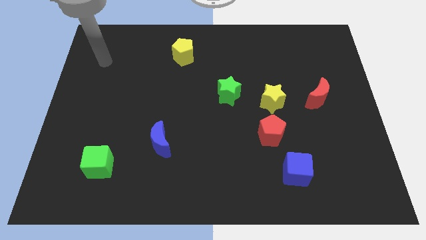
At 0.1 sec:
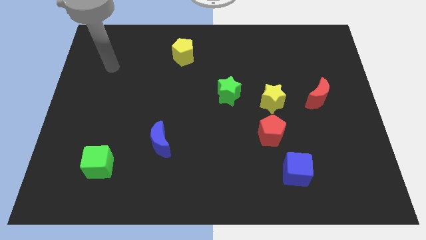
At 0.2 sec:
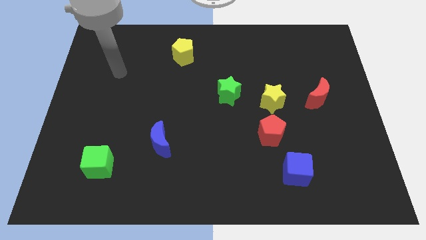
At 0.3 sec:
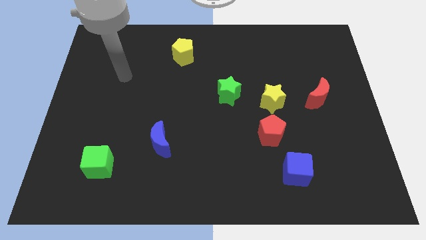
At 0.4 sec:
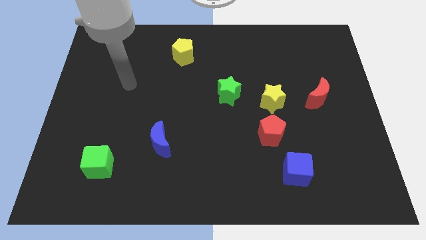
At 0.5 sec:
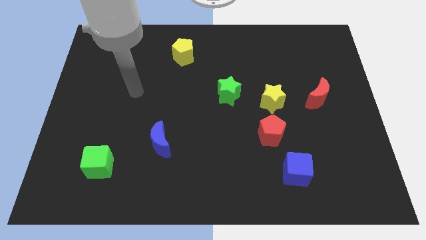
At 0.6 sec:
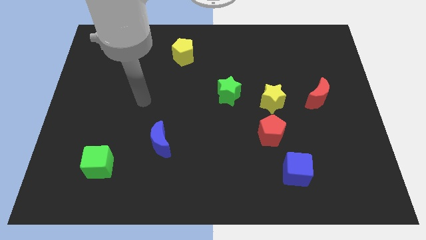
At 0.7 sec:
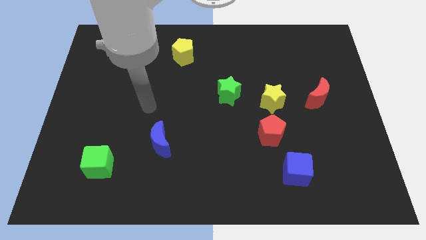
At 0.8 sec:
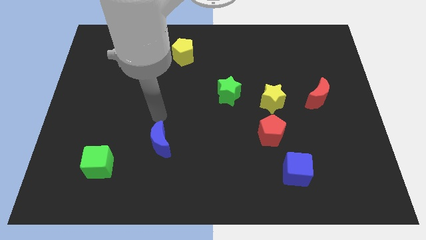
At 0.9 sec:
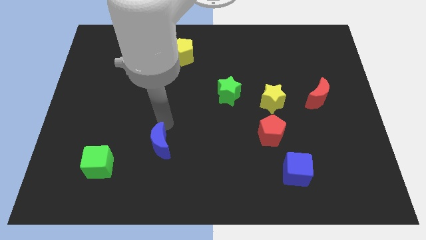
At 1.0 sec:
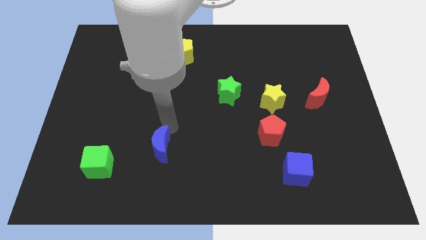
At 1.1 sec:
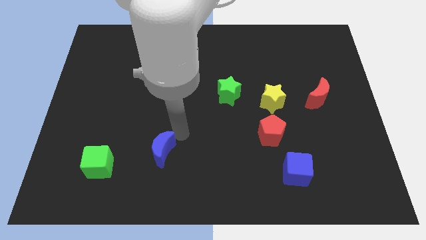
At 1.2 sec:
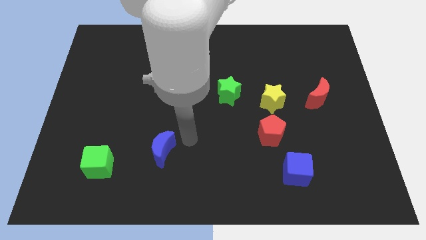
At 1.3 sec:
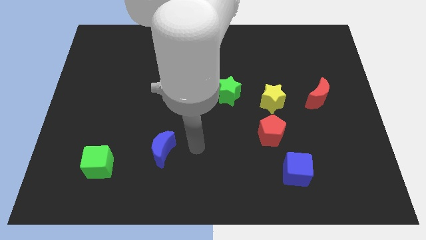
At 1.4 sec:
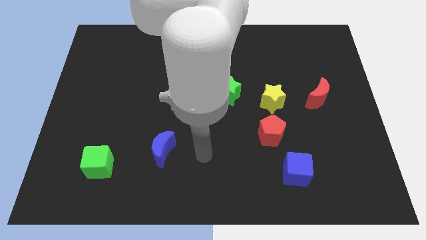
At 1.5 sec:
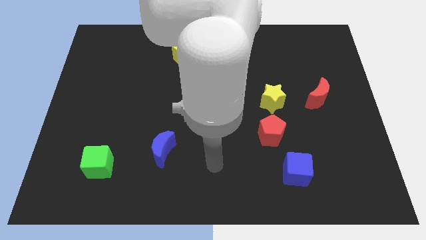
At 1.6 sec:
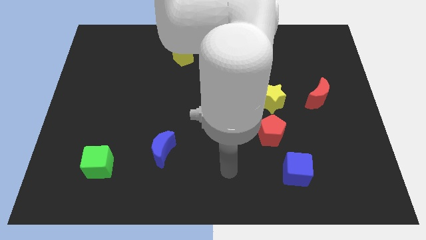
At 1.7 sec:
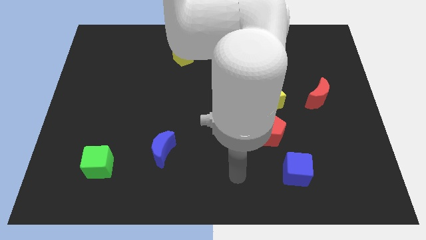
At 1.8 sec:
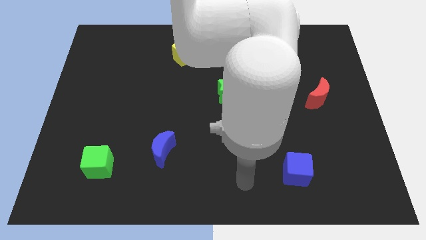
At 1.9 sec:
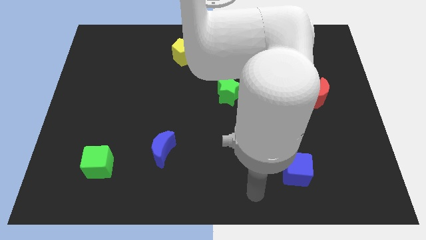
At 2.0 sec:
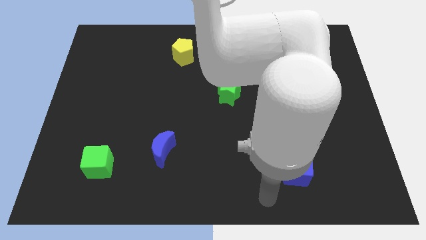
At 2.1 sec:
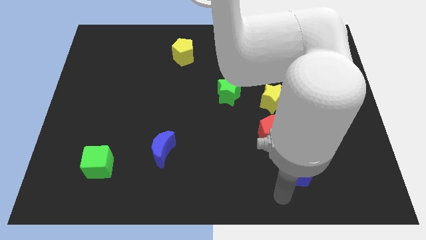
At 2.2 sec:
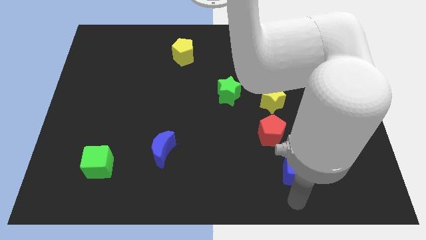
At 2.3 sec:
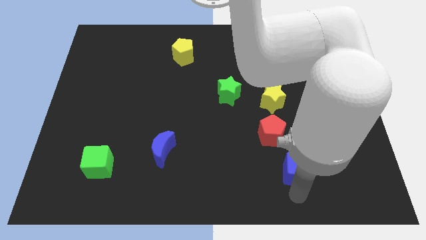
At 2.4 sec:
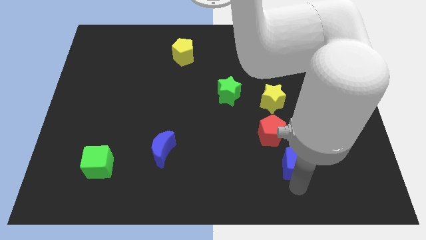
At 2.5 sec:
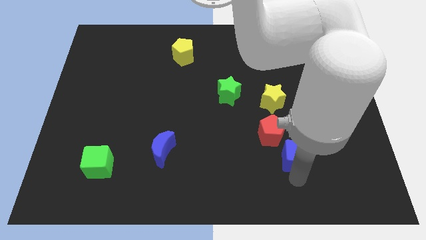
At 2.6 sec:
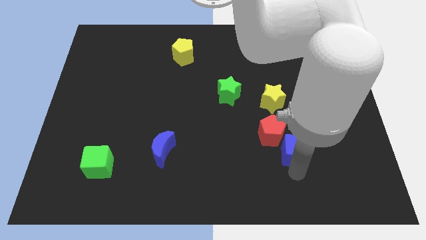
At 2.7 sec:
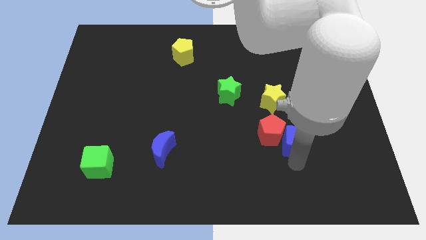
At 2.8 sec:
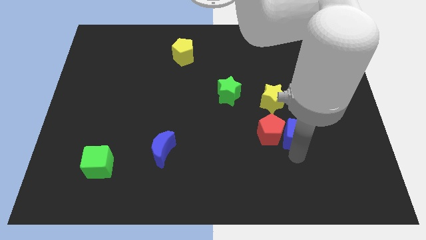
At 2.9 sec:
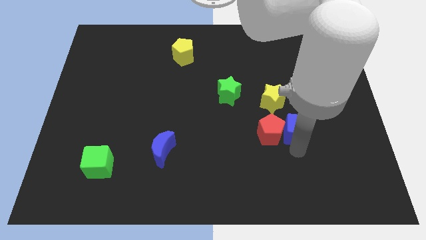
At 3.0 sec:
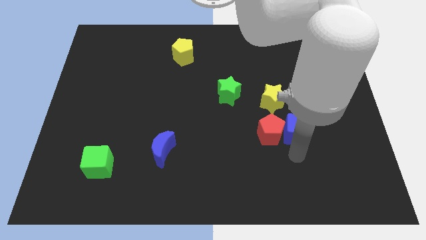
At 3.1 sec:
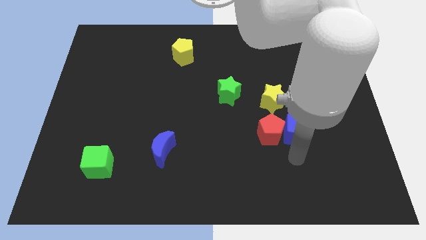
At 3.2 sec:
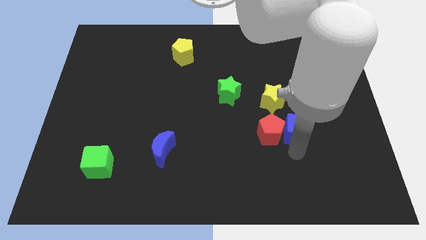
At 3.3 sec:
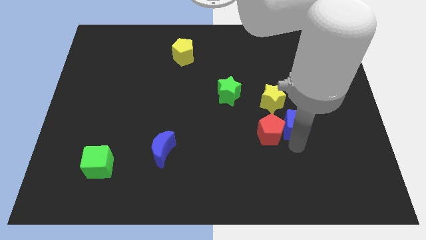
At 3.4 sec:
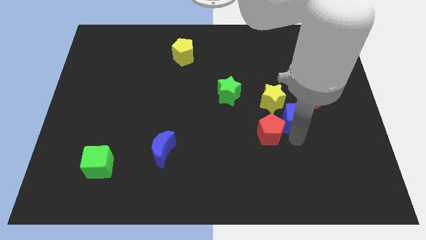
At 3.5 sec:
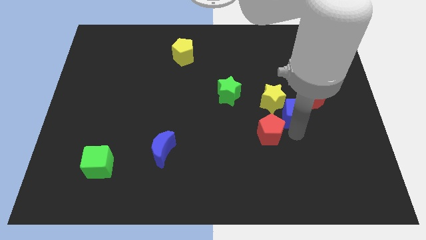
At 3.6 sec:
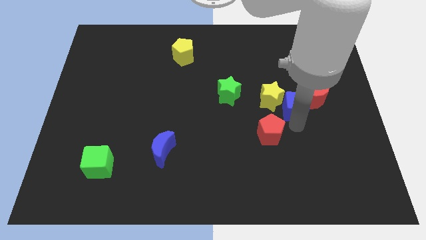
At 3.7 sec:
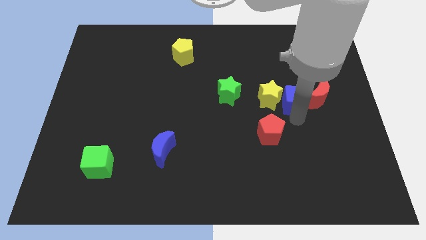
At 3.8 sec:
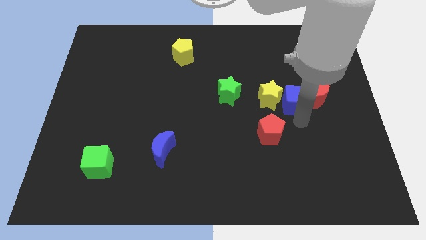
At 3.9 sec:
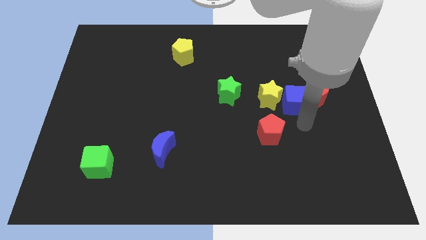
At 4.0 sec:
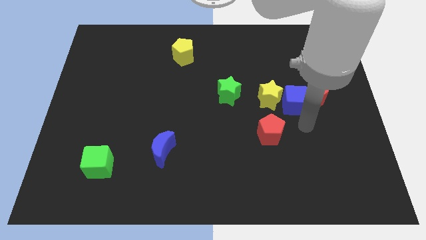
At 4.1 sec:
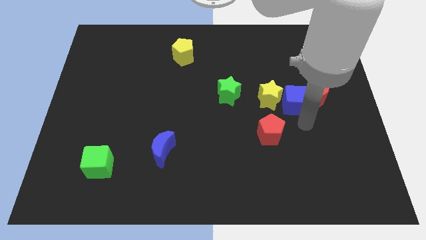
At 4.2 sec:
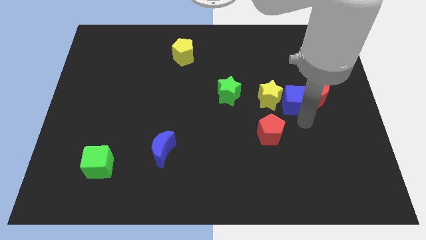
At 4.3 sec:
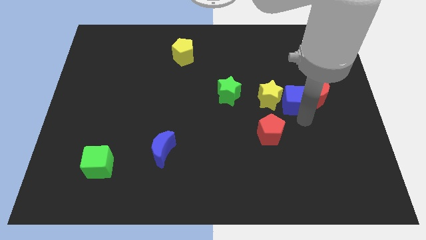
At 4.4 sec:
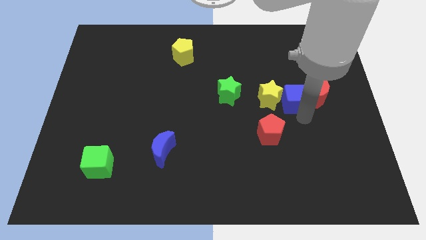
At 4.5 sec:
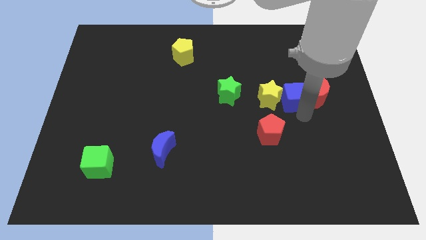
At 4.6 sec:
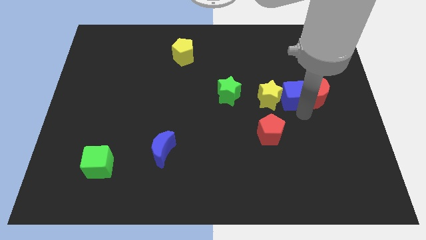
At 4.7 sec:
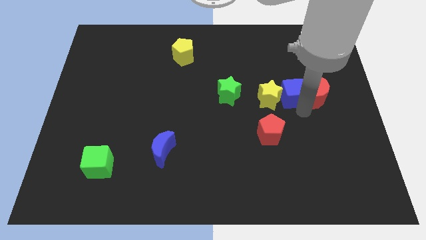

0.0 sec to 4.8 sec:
push the blue cube up

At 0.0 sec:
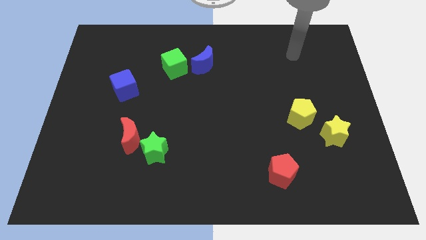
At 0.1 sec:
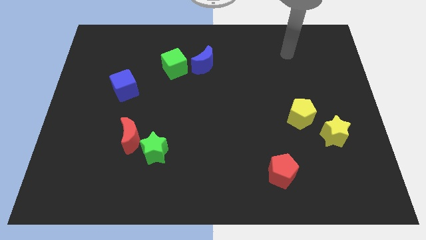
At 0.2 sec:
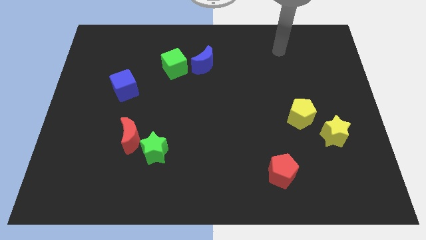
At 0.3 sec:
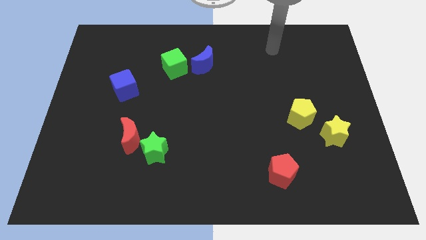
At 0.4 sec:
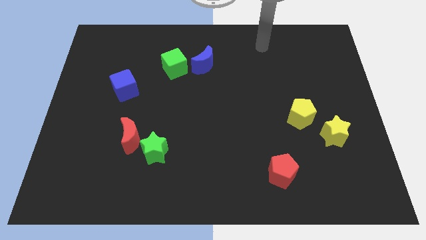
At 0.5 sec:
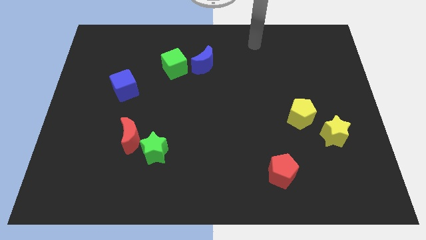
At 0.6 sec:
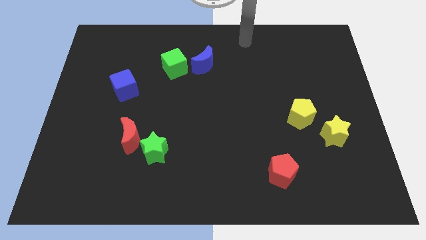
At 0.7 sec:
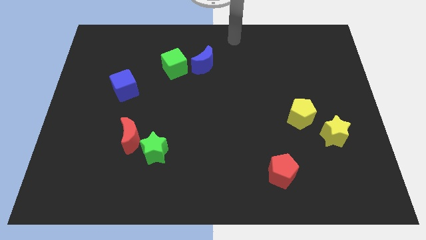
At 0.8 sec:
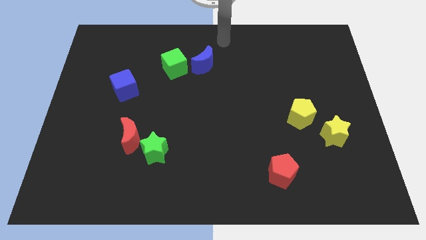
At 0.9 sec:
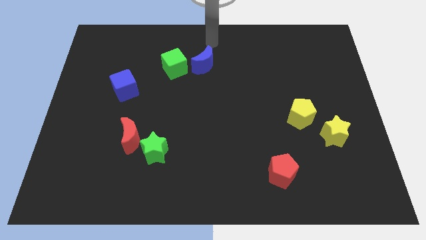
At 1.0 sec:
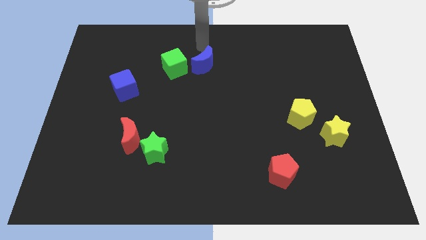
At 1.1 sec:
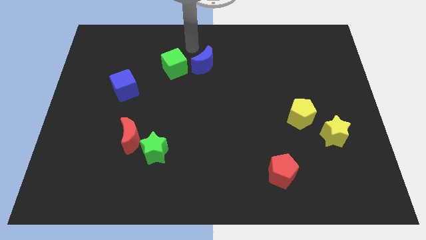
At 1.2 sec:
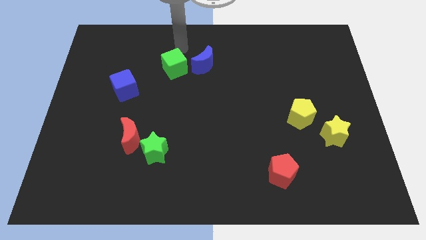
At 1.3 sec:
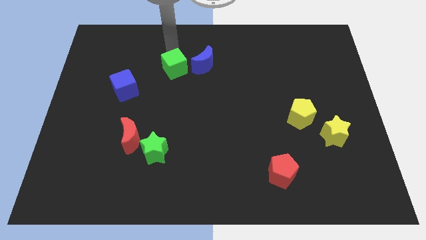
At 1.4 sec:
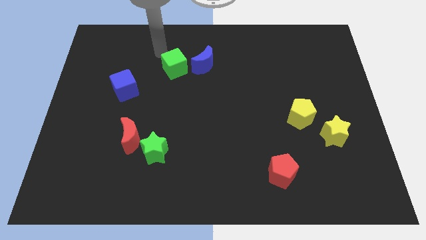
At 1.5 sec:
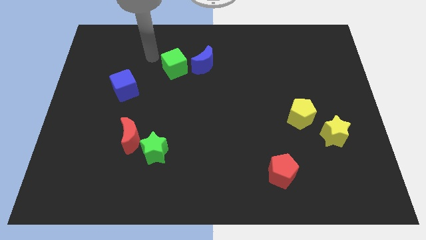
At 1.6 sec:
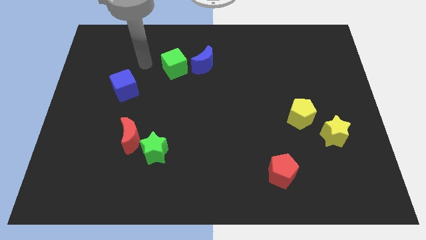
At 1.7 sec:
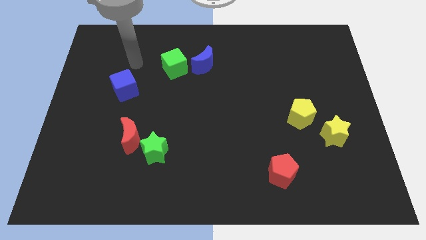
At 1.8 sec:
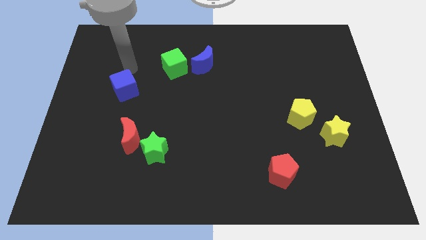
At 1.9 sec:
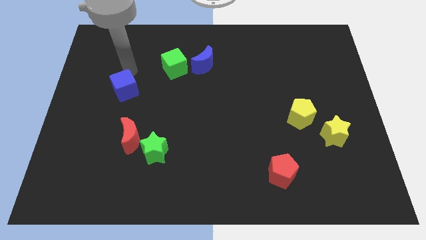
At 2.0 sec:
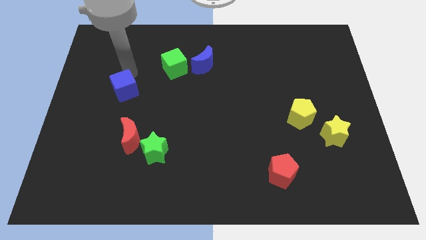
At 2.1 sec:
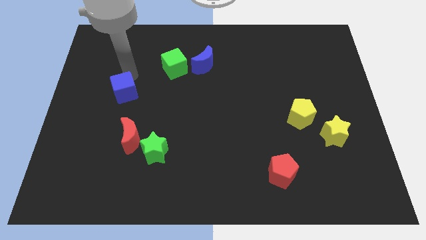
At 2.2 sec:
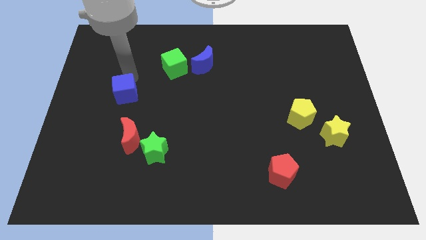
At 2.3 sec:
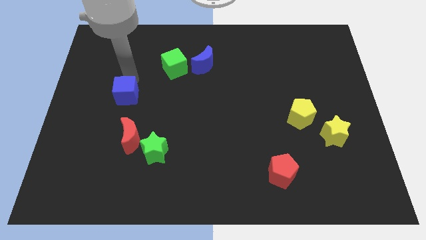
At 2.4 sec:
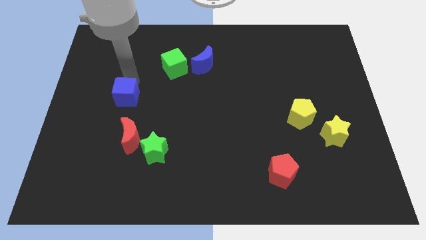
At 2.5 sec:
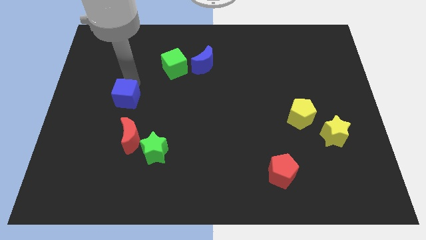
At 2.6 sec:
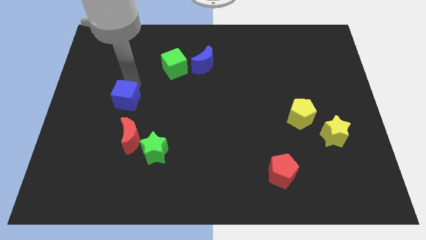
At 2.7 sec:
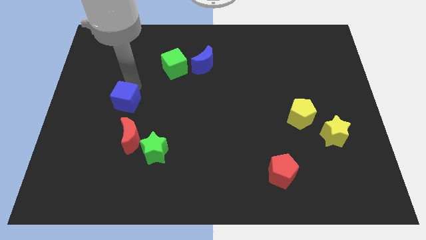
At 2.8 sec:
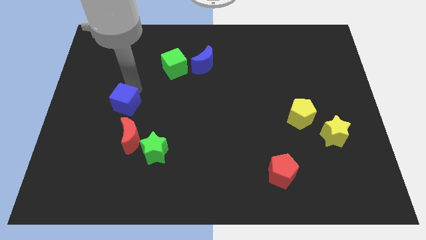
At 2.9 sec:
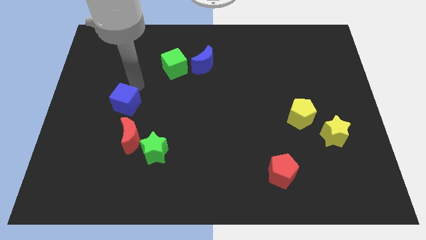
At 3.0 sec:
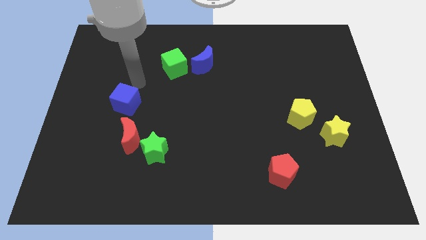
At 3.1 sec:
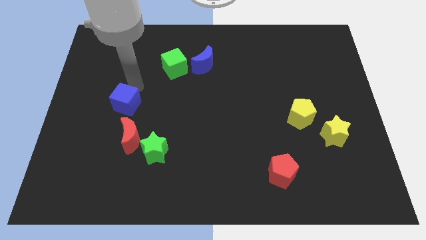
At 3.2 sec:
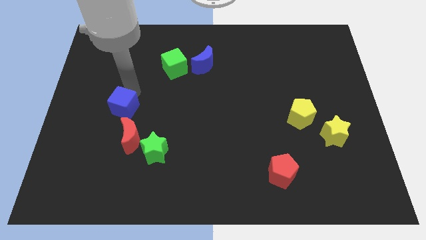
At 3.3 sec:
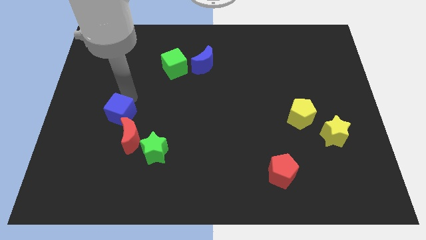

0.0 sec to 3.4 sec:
move the blue cube down a little
